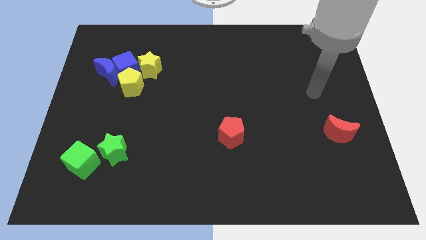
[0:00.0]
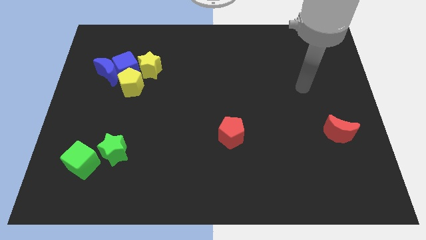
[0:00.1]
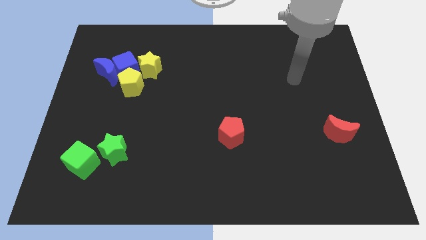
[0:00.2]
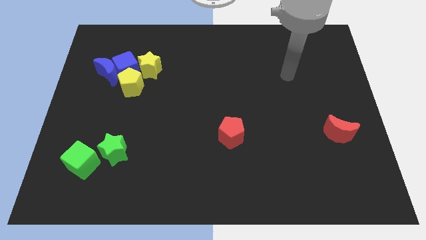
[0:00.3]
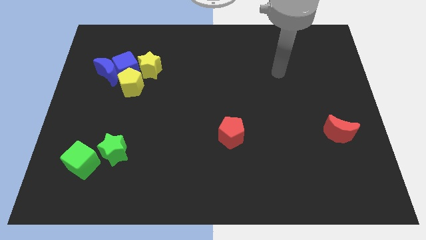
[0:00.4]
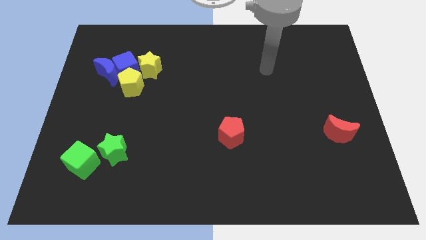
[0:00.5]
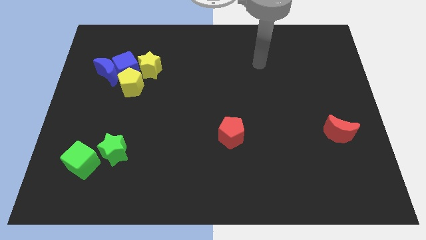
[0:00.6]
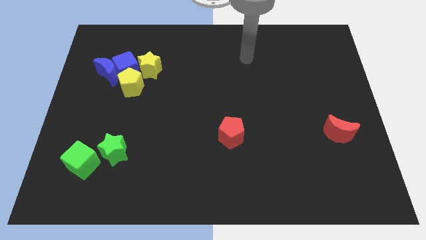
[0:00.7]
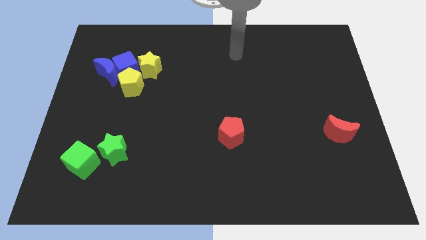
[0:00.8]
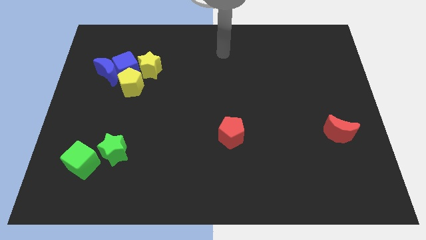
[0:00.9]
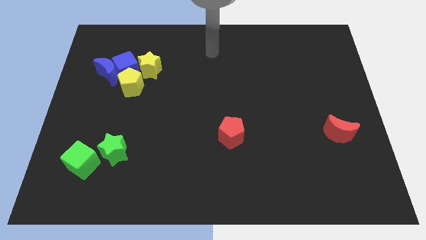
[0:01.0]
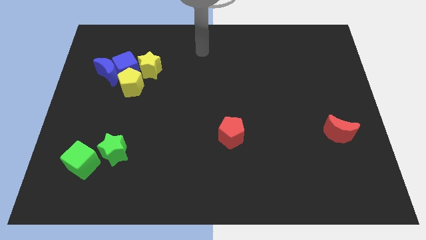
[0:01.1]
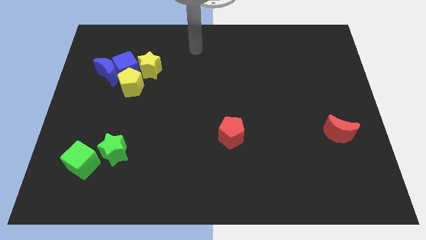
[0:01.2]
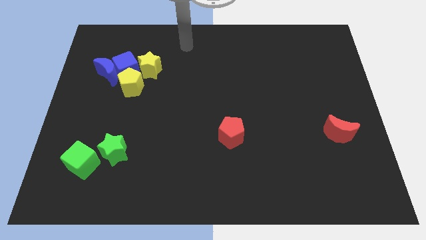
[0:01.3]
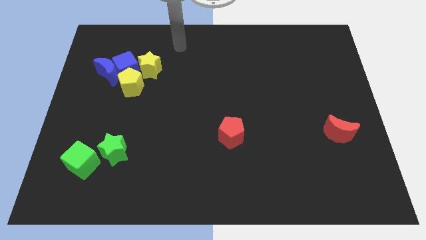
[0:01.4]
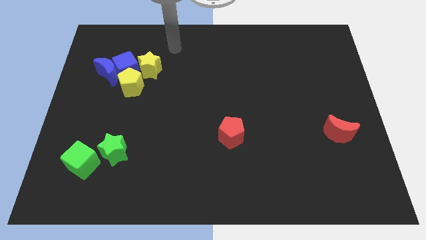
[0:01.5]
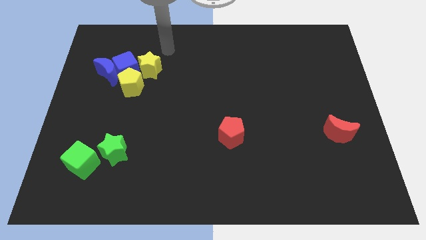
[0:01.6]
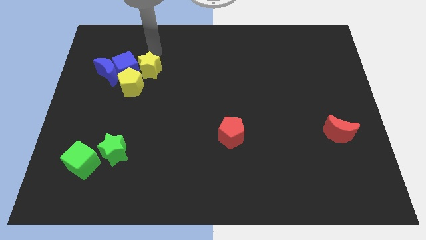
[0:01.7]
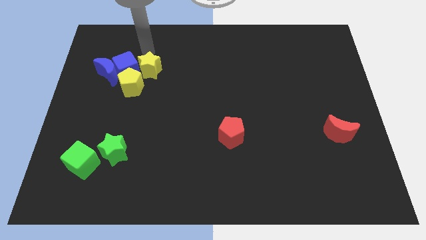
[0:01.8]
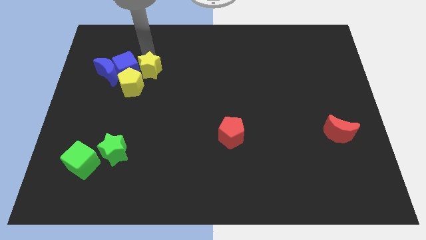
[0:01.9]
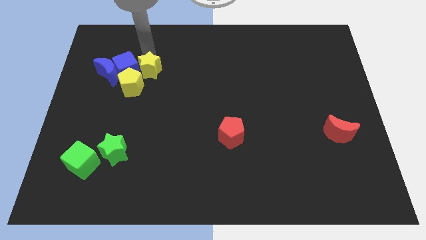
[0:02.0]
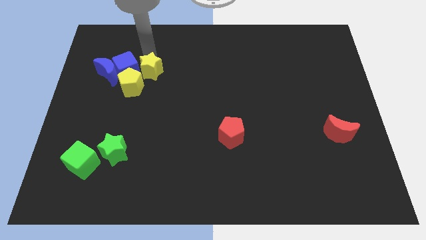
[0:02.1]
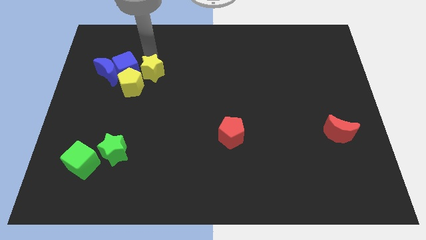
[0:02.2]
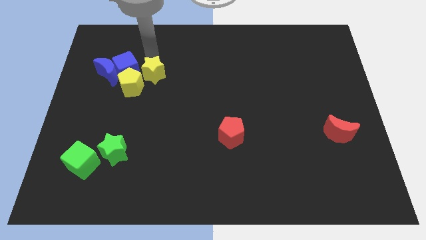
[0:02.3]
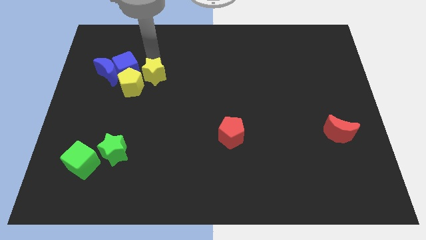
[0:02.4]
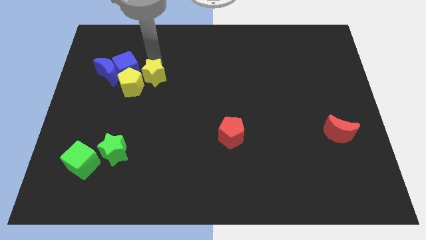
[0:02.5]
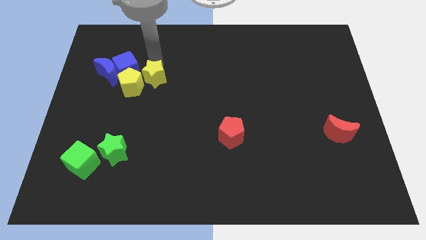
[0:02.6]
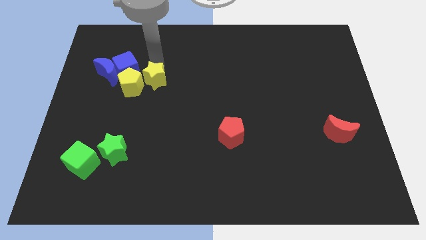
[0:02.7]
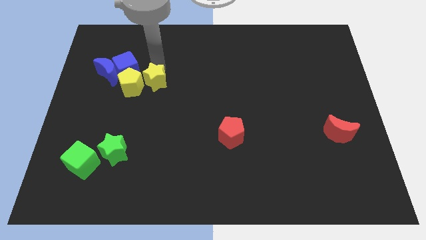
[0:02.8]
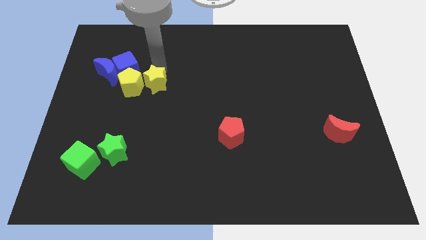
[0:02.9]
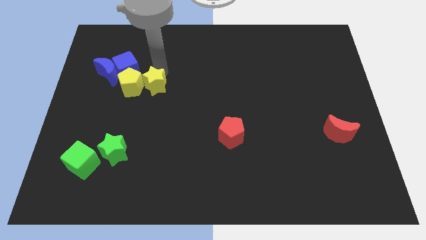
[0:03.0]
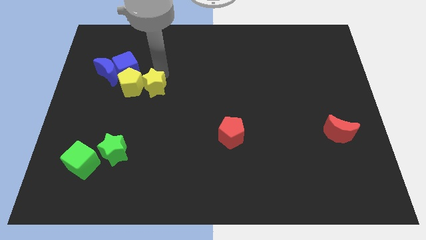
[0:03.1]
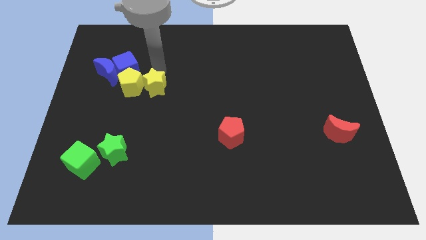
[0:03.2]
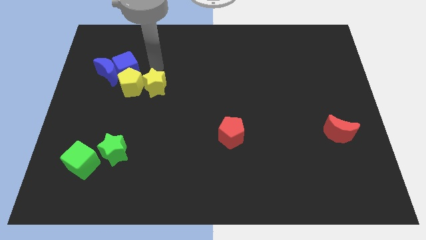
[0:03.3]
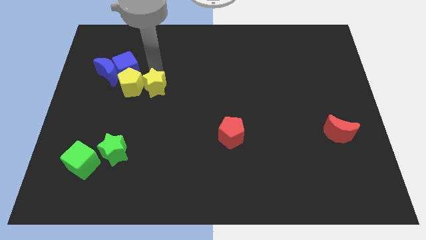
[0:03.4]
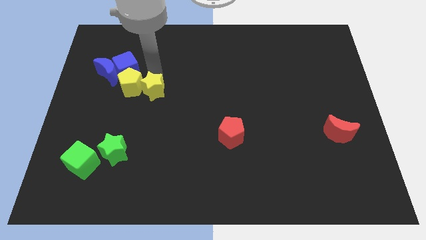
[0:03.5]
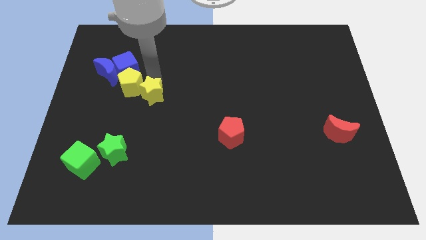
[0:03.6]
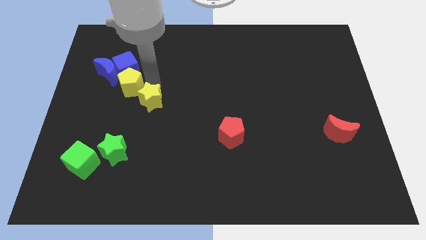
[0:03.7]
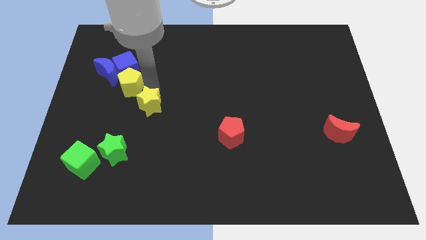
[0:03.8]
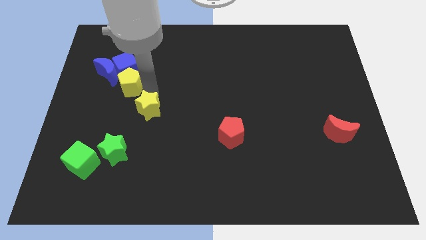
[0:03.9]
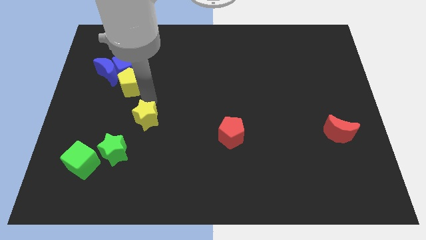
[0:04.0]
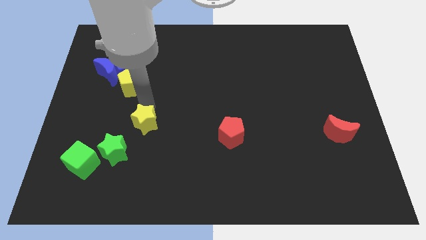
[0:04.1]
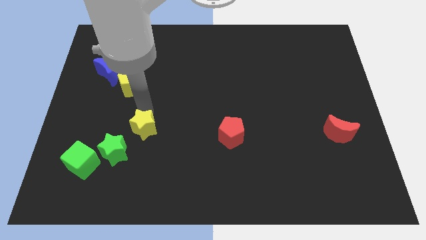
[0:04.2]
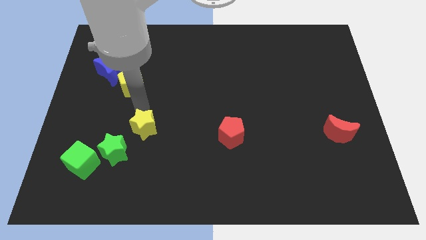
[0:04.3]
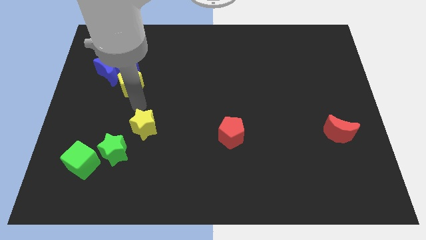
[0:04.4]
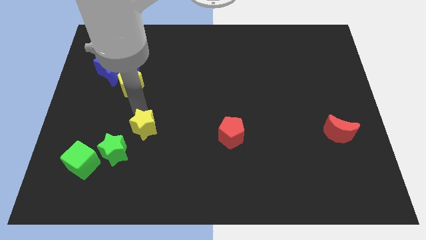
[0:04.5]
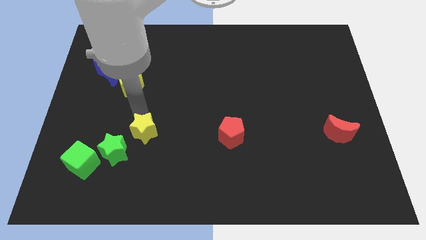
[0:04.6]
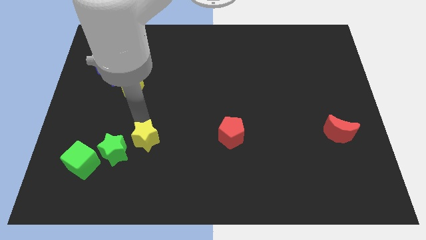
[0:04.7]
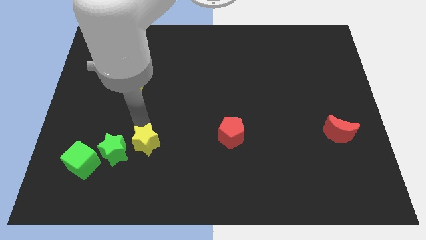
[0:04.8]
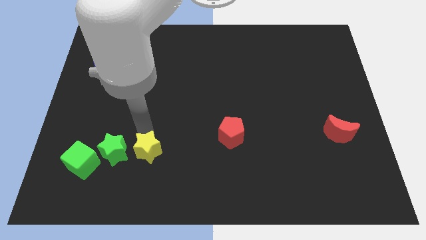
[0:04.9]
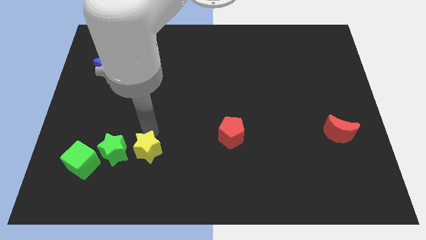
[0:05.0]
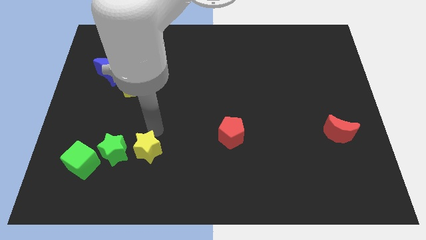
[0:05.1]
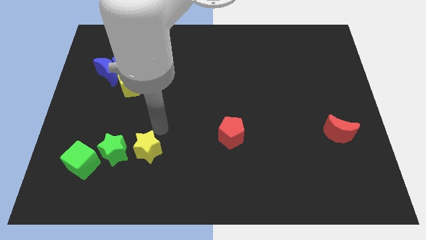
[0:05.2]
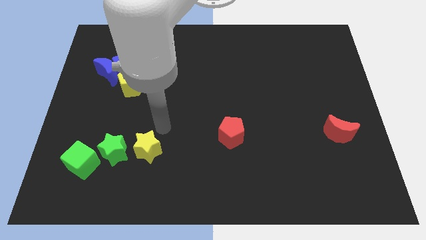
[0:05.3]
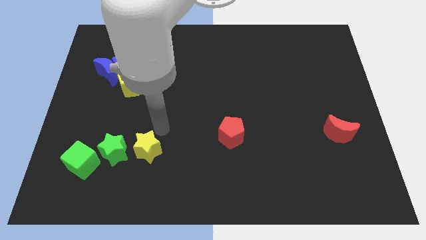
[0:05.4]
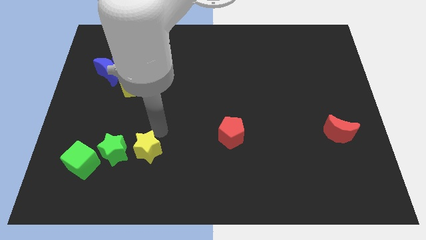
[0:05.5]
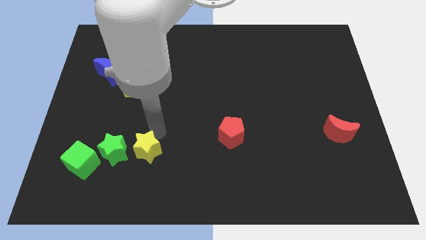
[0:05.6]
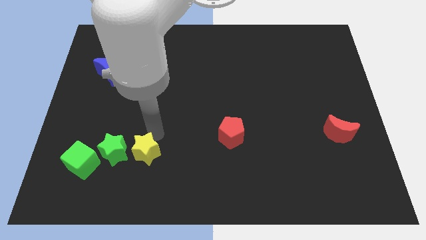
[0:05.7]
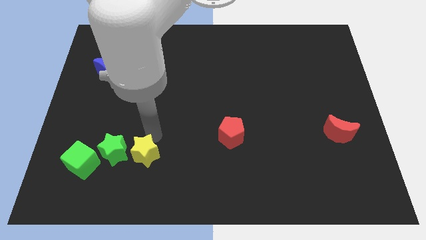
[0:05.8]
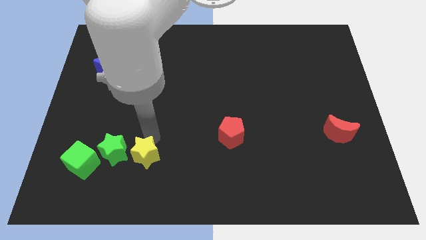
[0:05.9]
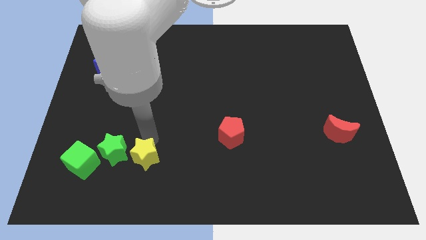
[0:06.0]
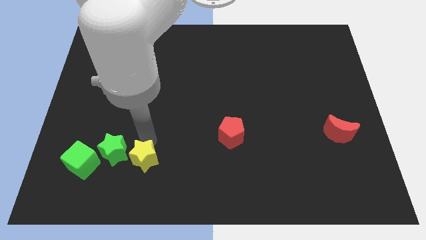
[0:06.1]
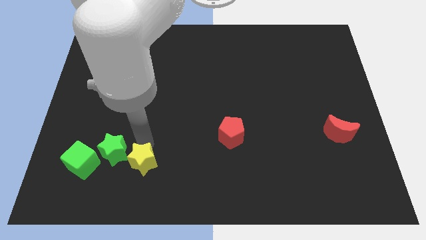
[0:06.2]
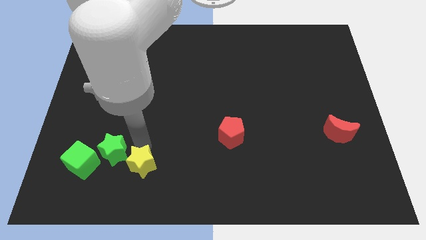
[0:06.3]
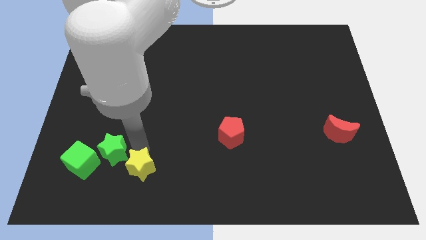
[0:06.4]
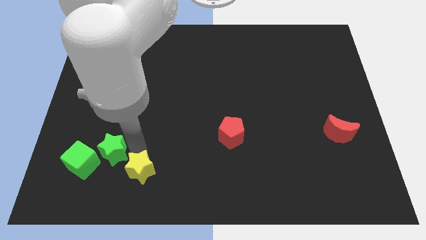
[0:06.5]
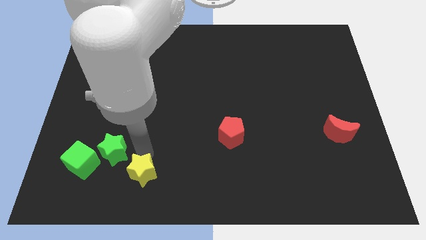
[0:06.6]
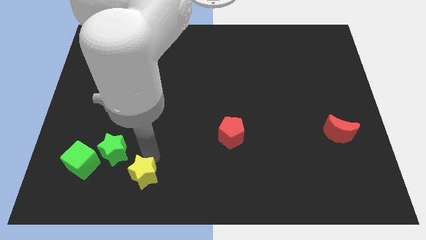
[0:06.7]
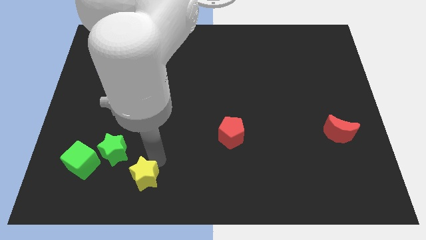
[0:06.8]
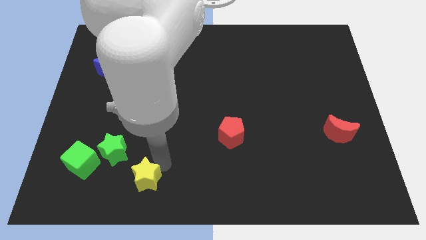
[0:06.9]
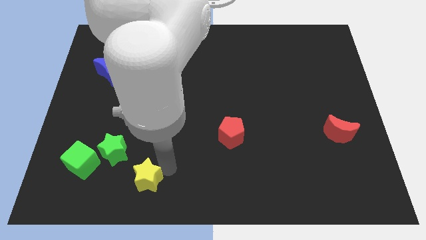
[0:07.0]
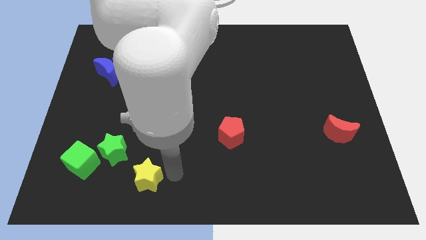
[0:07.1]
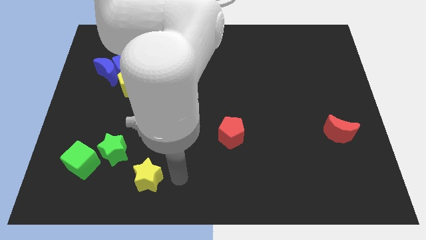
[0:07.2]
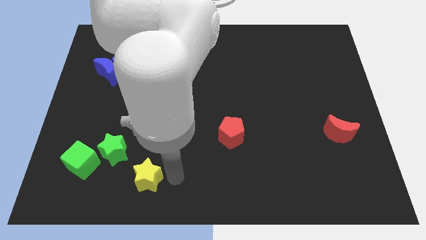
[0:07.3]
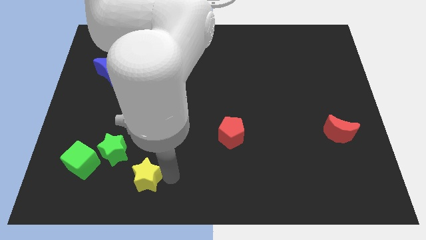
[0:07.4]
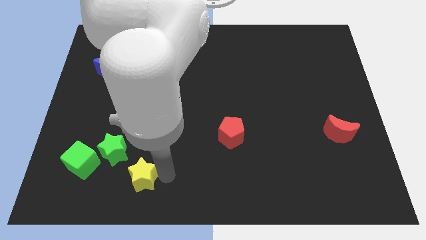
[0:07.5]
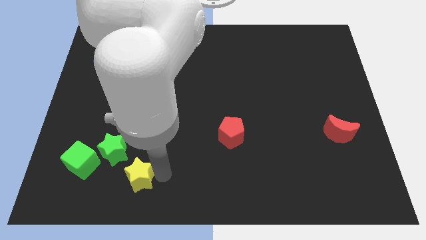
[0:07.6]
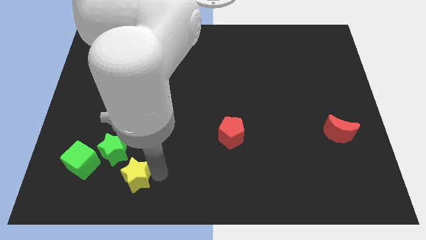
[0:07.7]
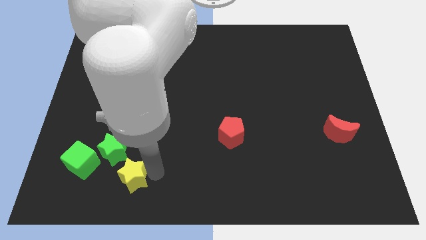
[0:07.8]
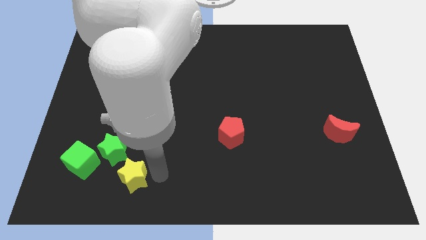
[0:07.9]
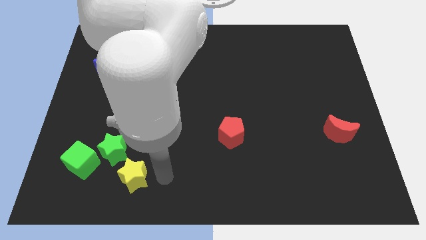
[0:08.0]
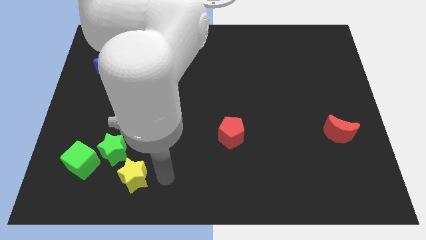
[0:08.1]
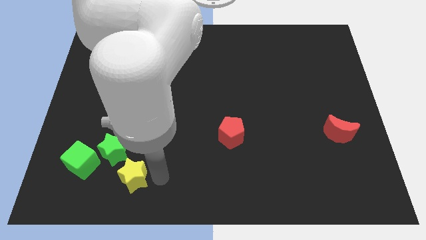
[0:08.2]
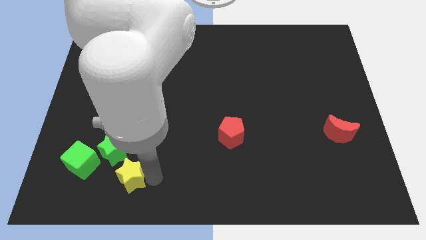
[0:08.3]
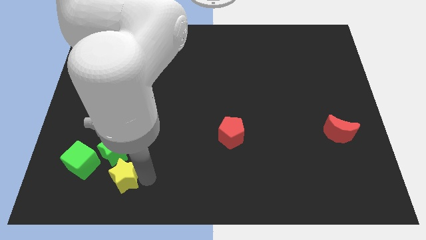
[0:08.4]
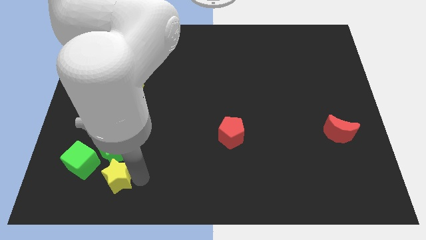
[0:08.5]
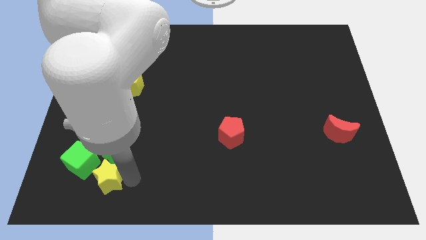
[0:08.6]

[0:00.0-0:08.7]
put the yellow star to the bottom left side of the green star

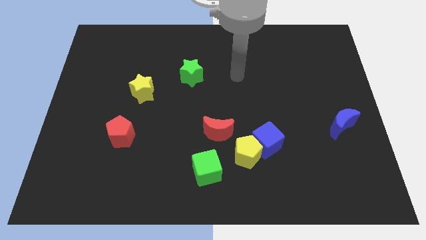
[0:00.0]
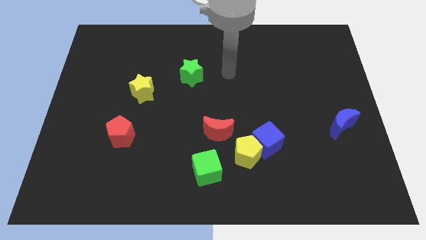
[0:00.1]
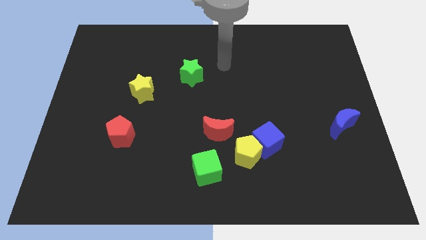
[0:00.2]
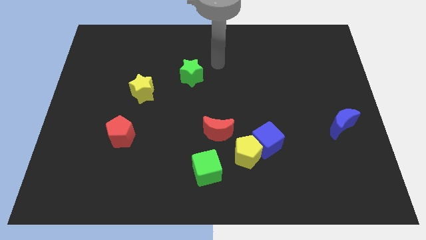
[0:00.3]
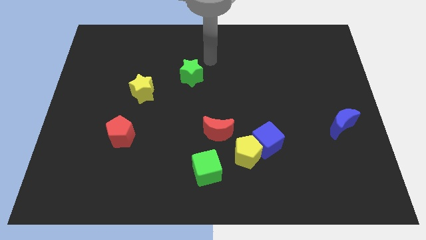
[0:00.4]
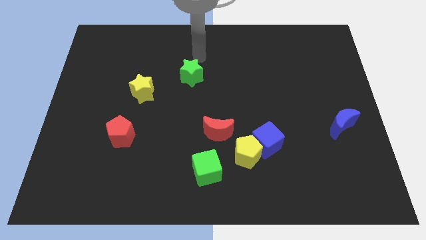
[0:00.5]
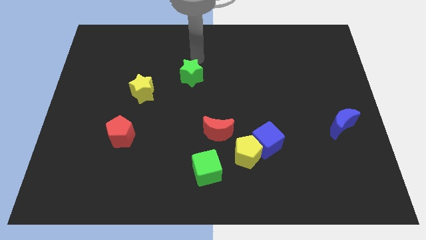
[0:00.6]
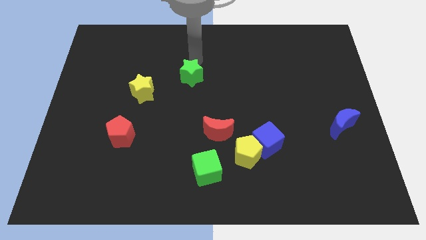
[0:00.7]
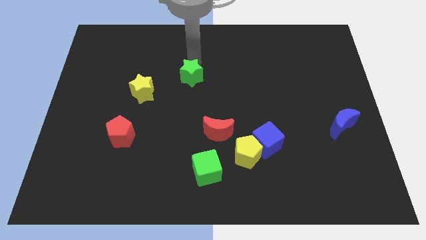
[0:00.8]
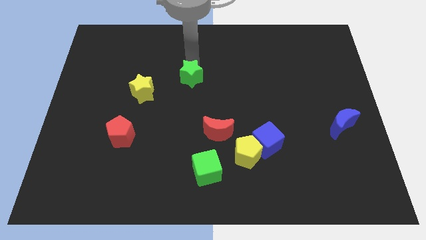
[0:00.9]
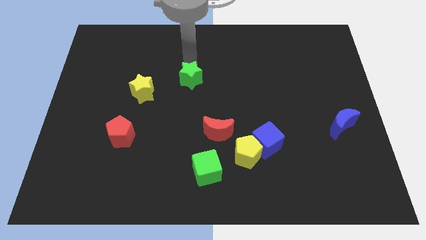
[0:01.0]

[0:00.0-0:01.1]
move the green star right of the yellow star
